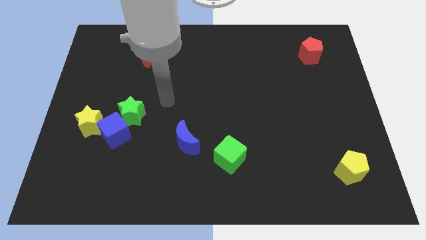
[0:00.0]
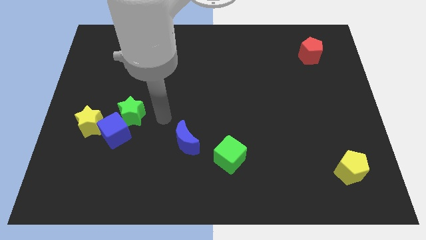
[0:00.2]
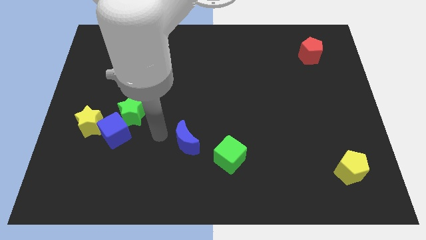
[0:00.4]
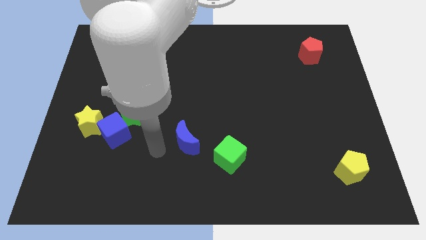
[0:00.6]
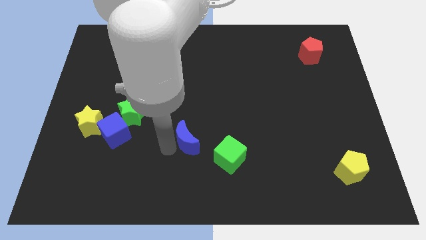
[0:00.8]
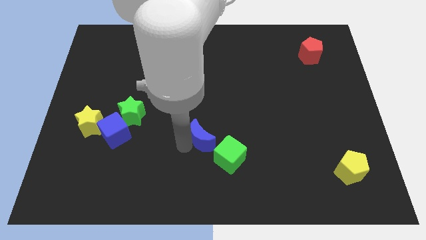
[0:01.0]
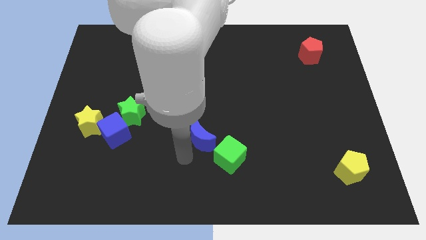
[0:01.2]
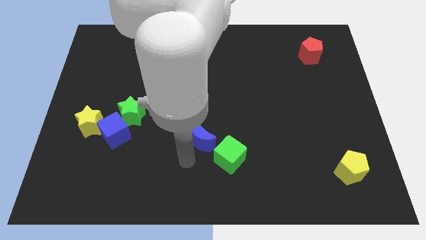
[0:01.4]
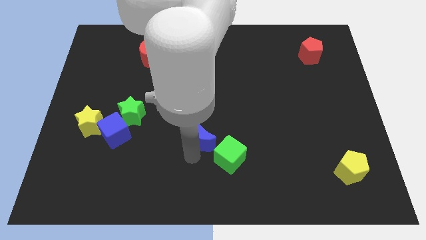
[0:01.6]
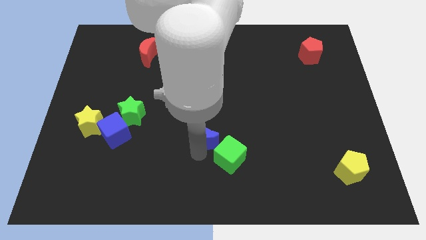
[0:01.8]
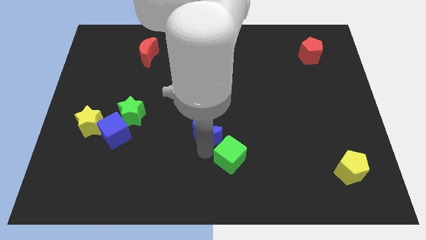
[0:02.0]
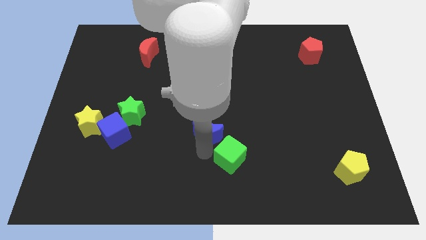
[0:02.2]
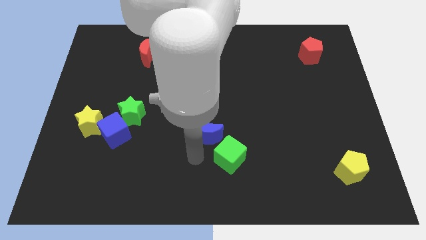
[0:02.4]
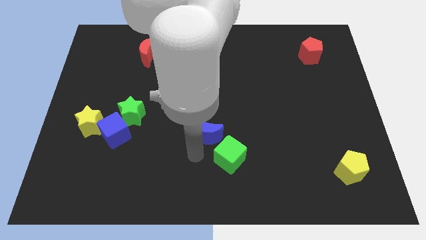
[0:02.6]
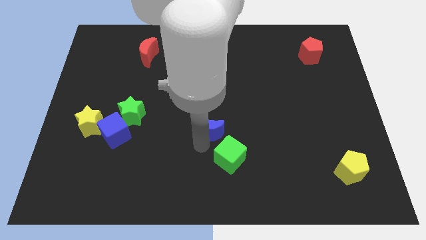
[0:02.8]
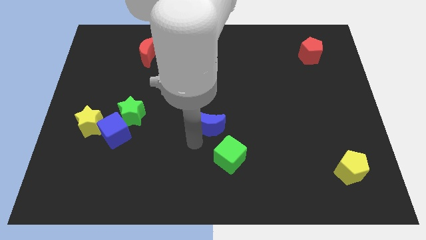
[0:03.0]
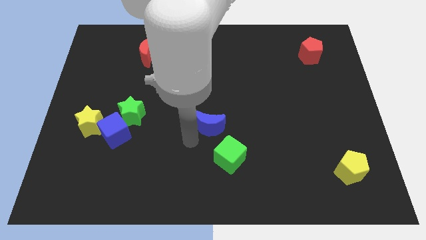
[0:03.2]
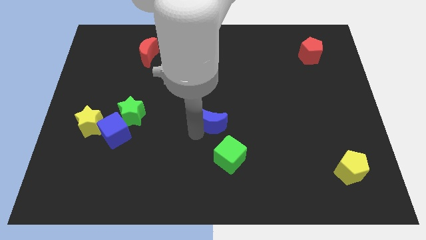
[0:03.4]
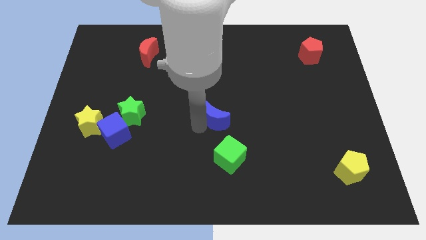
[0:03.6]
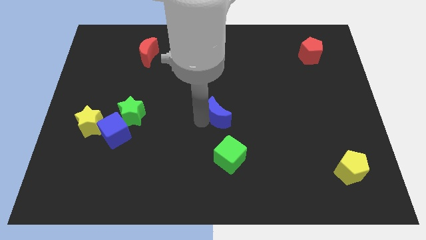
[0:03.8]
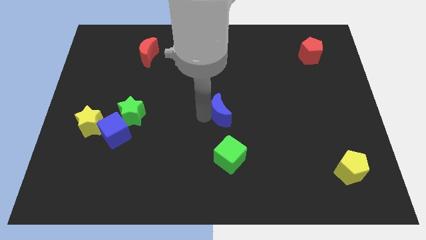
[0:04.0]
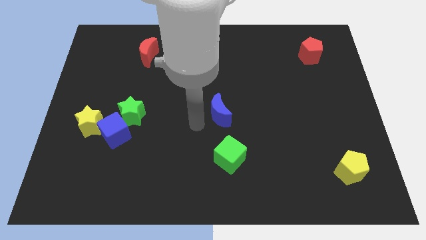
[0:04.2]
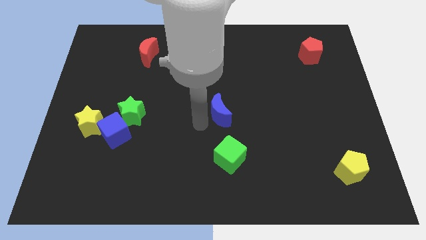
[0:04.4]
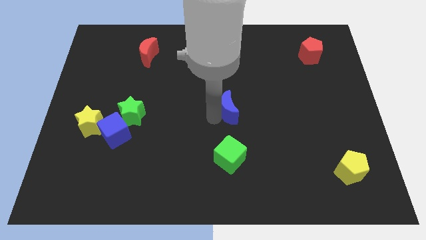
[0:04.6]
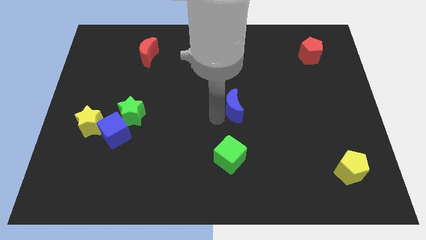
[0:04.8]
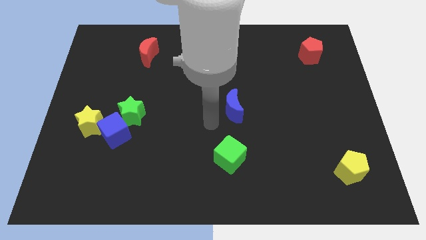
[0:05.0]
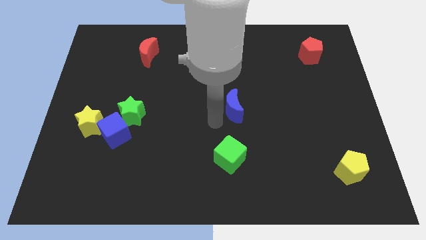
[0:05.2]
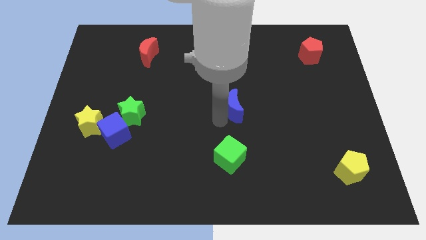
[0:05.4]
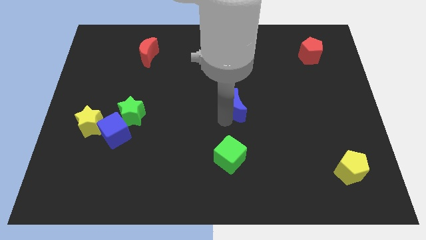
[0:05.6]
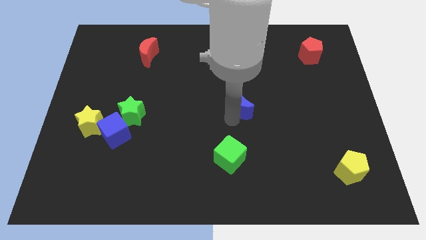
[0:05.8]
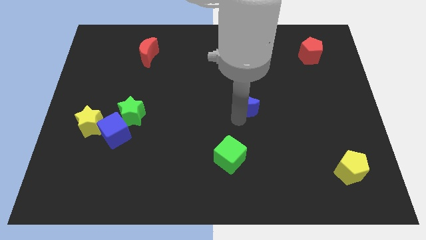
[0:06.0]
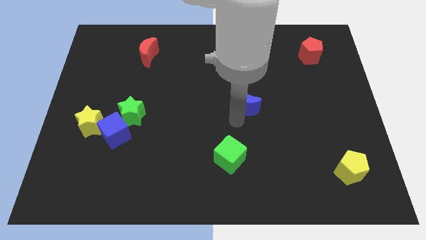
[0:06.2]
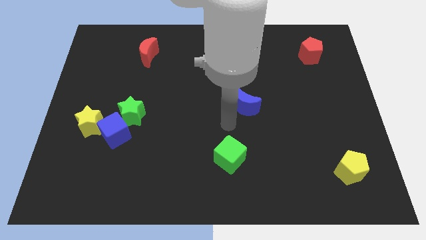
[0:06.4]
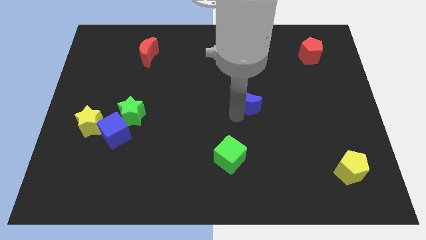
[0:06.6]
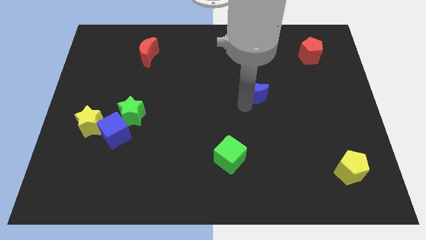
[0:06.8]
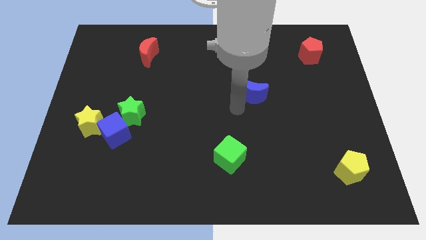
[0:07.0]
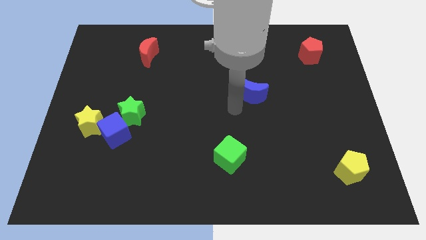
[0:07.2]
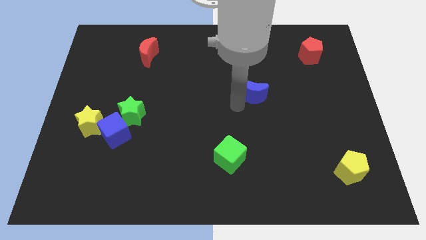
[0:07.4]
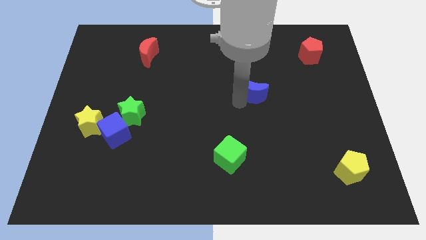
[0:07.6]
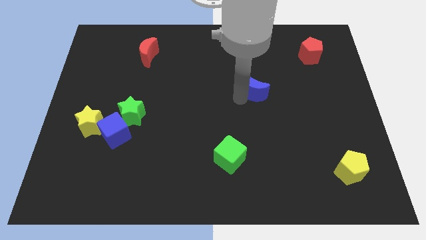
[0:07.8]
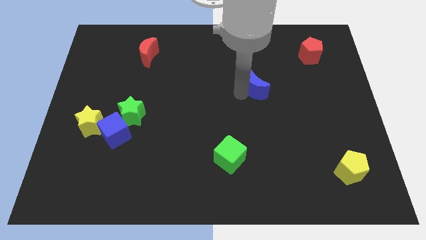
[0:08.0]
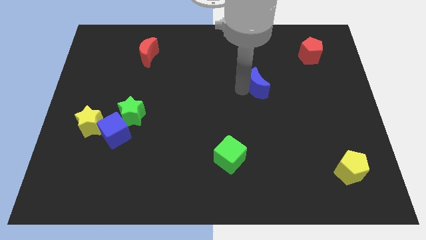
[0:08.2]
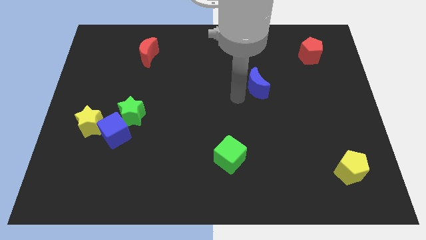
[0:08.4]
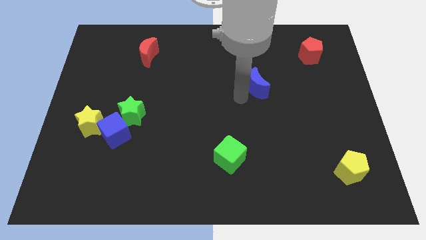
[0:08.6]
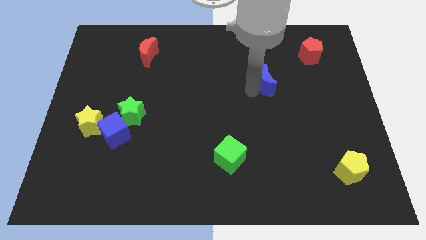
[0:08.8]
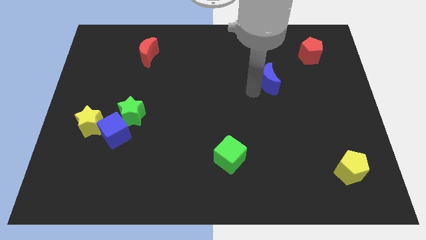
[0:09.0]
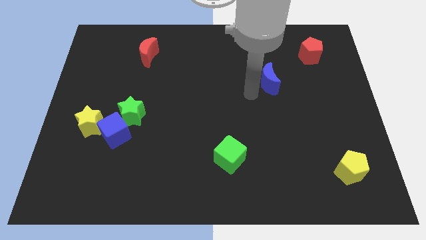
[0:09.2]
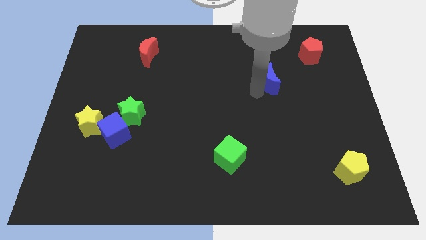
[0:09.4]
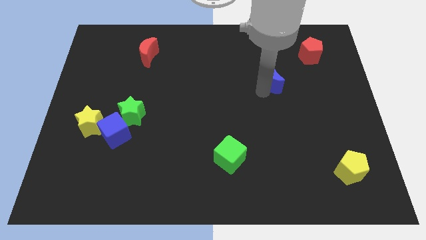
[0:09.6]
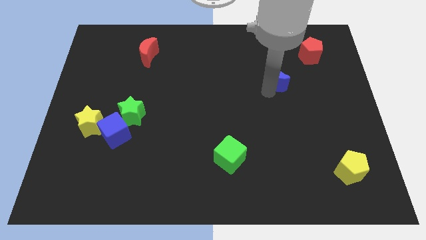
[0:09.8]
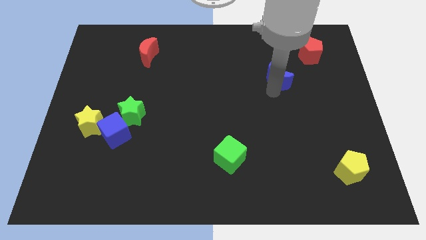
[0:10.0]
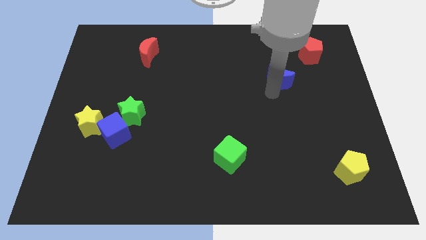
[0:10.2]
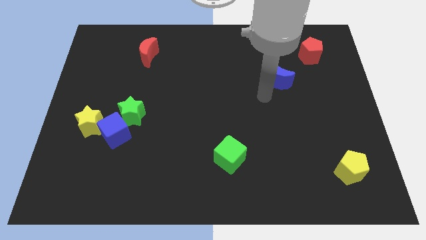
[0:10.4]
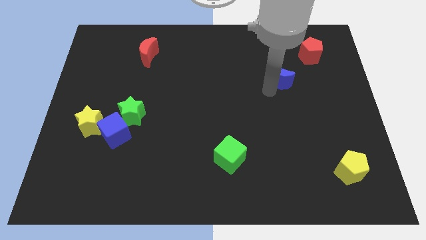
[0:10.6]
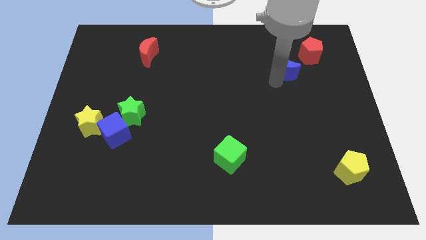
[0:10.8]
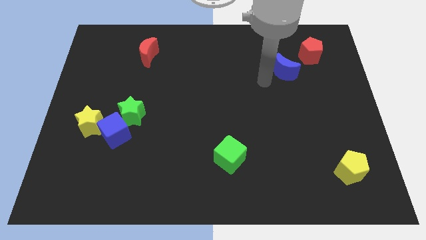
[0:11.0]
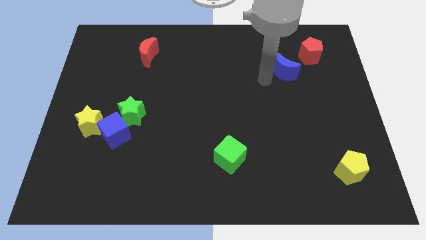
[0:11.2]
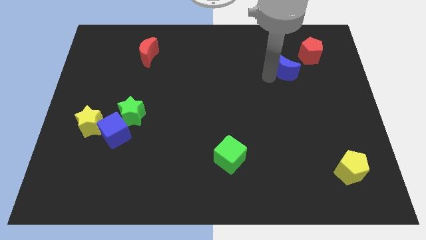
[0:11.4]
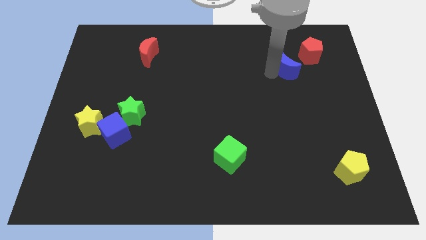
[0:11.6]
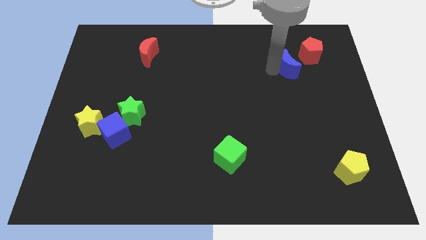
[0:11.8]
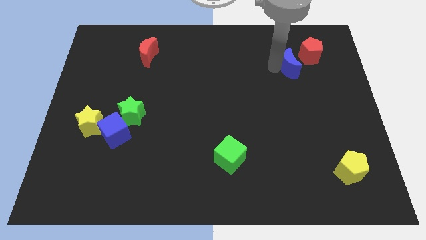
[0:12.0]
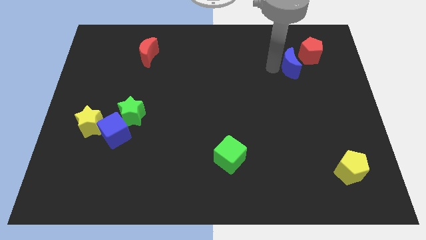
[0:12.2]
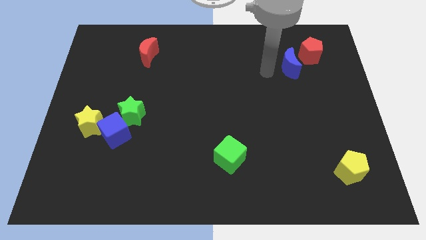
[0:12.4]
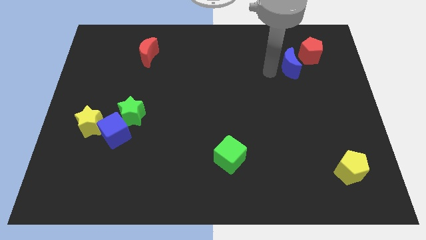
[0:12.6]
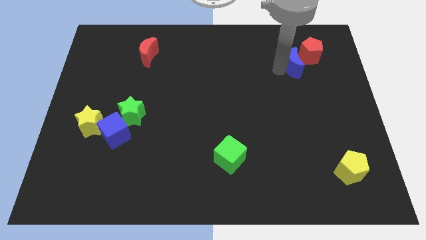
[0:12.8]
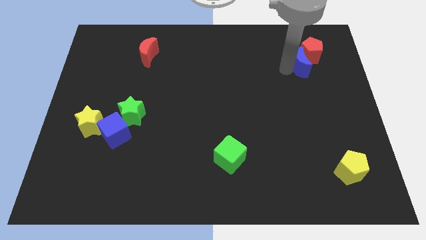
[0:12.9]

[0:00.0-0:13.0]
move the blue moon to the red pentagon

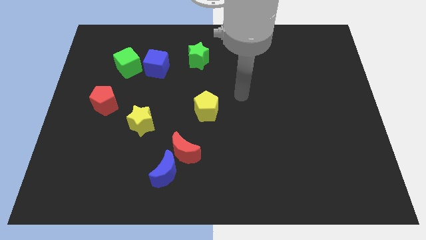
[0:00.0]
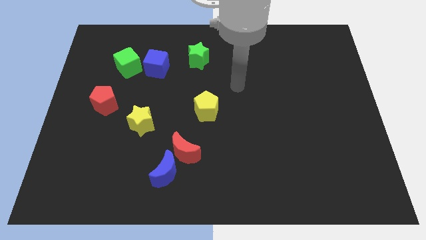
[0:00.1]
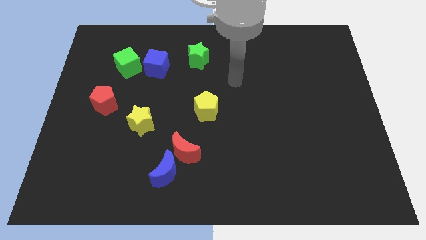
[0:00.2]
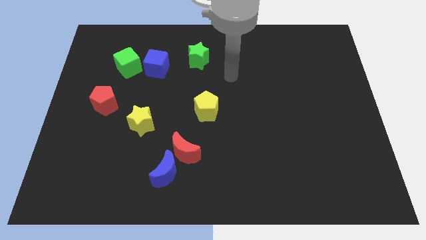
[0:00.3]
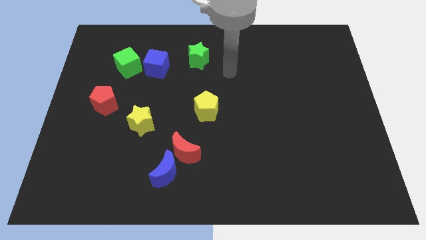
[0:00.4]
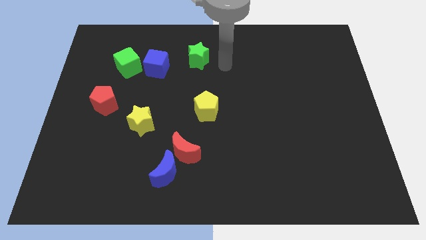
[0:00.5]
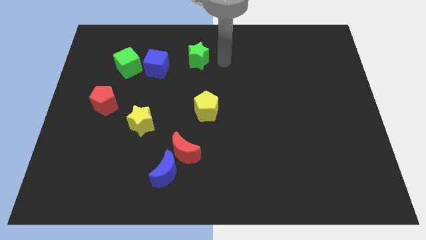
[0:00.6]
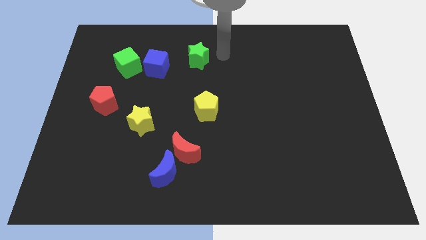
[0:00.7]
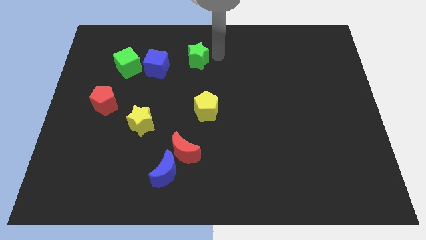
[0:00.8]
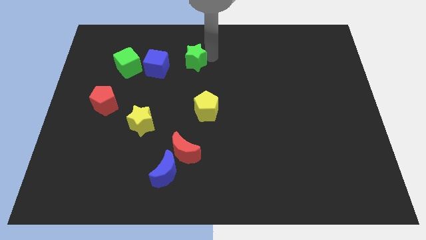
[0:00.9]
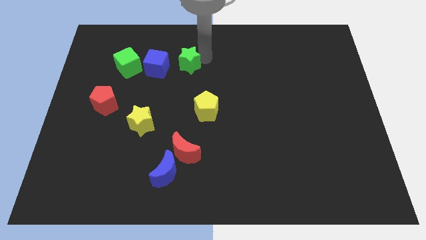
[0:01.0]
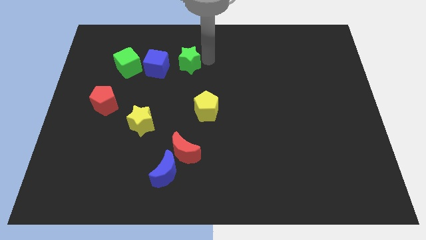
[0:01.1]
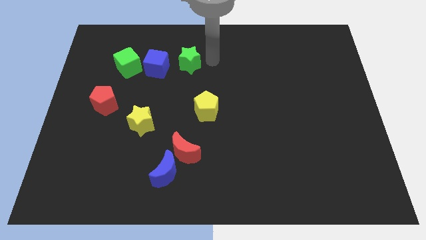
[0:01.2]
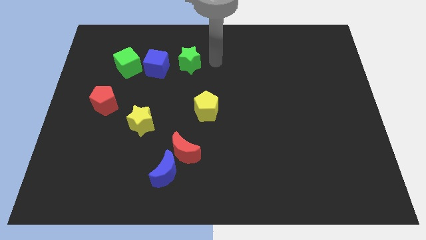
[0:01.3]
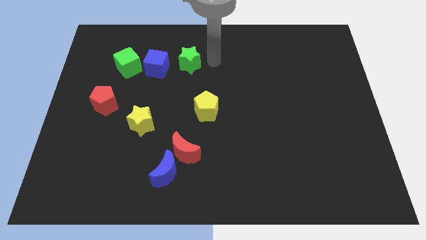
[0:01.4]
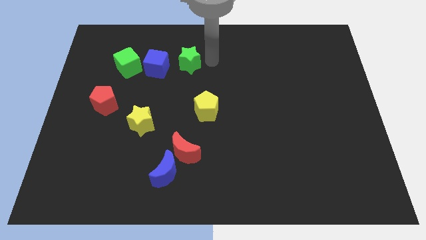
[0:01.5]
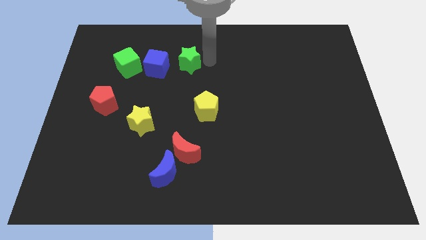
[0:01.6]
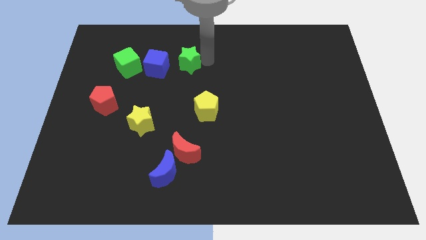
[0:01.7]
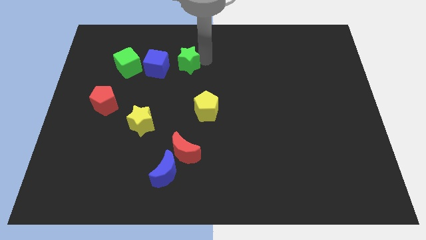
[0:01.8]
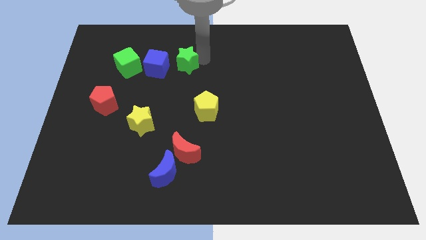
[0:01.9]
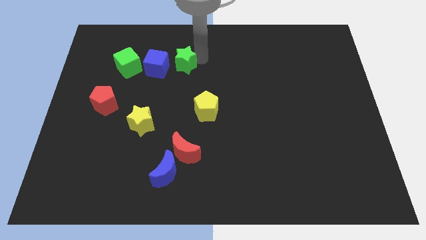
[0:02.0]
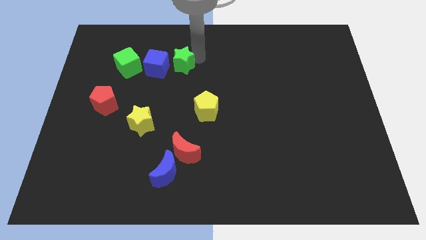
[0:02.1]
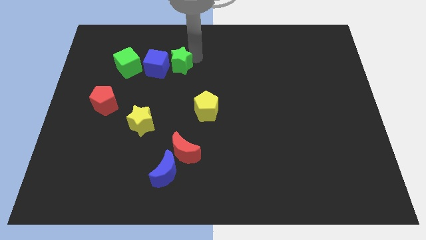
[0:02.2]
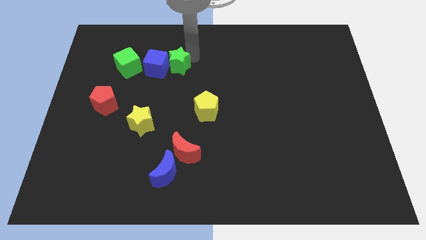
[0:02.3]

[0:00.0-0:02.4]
slide the green star next to the blue cube
